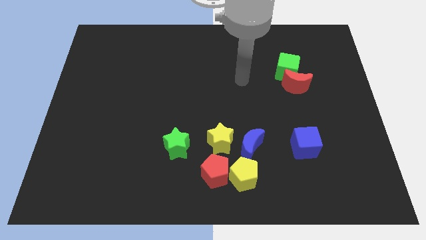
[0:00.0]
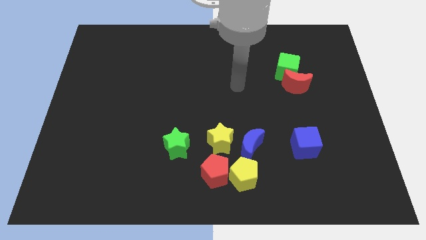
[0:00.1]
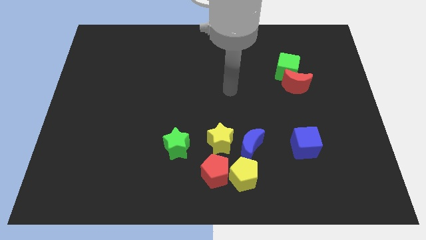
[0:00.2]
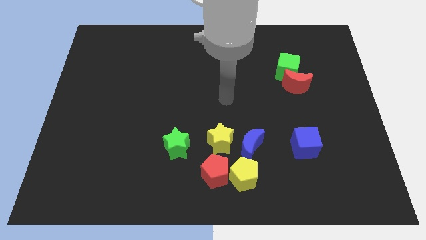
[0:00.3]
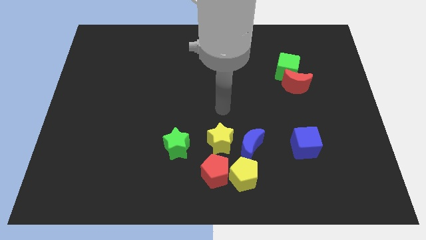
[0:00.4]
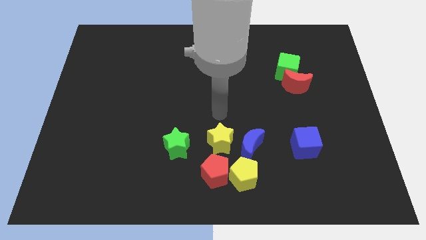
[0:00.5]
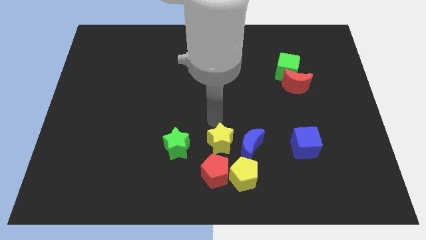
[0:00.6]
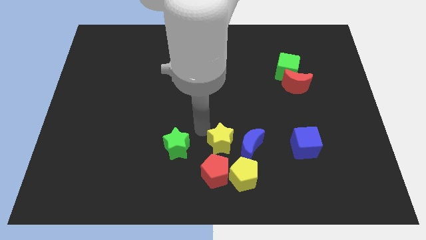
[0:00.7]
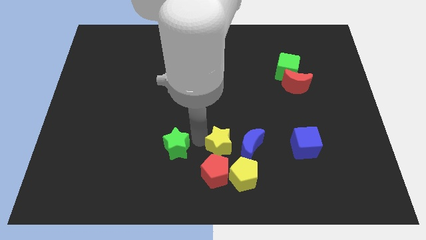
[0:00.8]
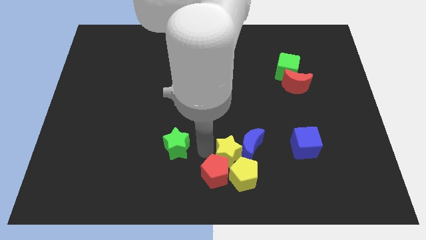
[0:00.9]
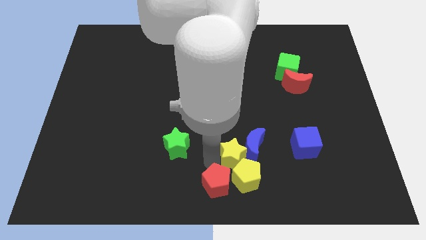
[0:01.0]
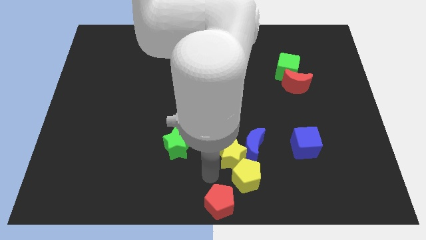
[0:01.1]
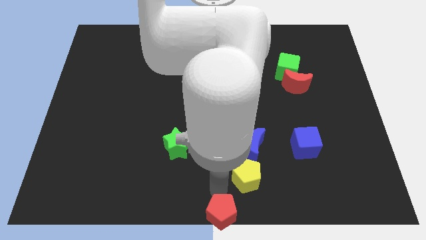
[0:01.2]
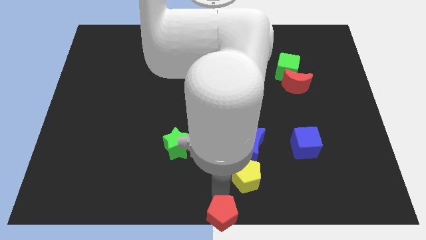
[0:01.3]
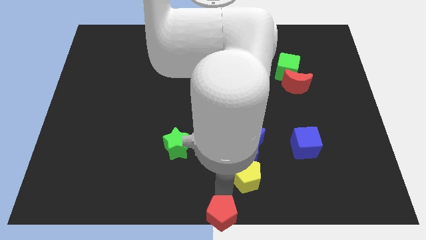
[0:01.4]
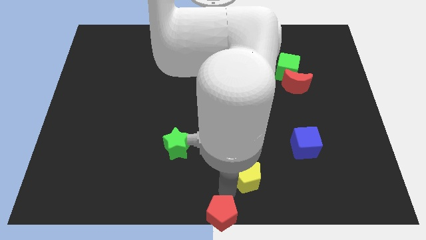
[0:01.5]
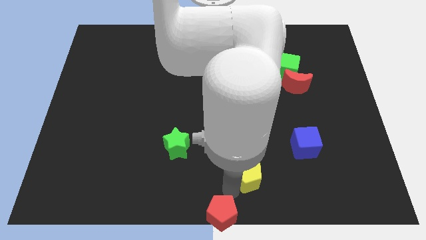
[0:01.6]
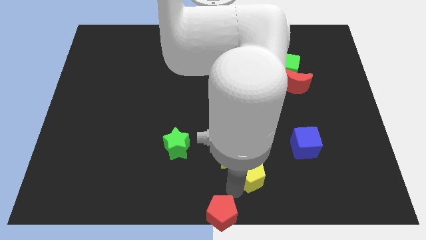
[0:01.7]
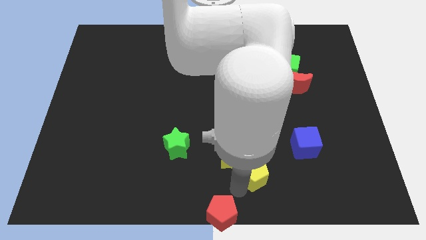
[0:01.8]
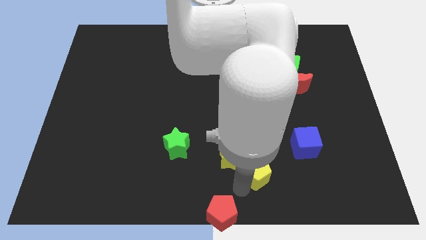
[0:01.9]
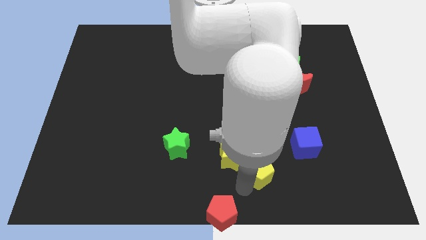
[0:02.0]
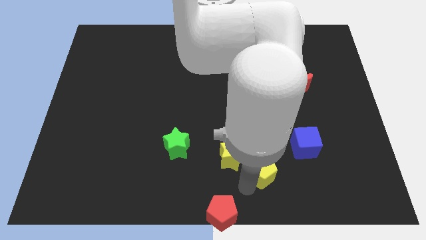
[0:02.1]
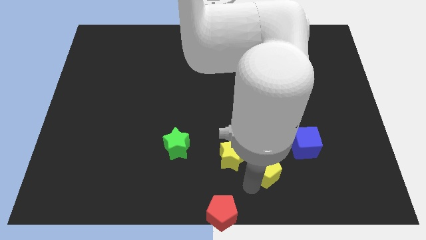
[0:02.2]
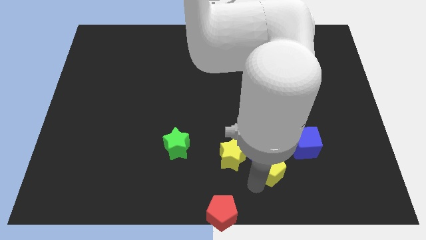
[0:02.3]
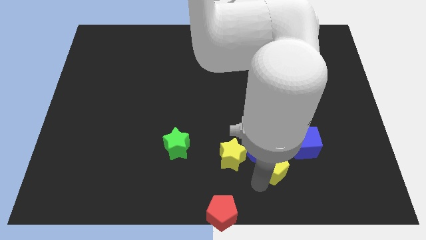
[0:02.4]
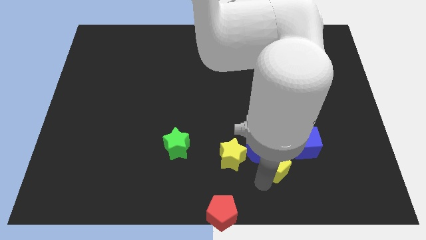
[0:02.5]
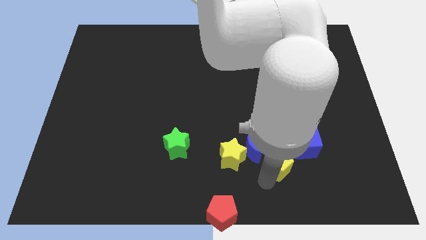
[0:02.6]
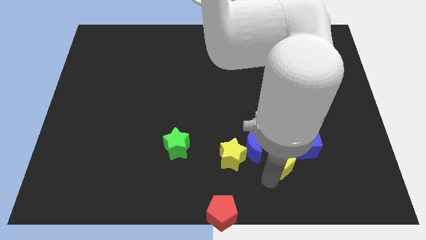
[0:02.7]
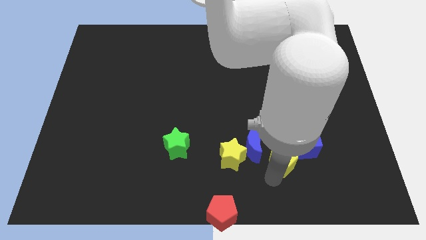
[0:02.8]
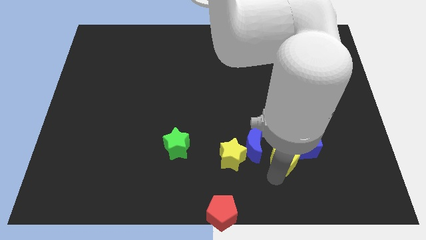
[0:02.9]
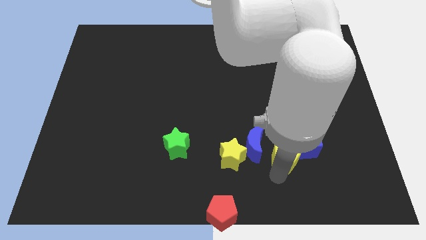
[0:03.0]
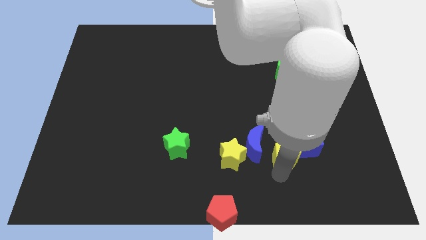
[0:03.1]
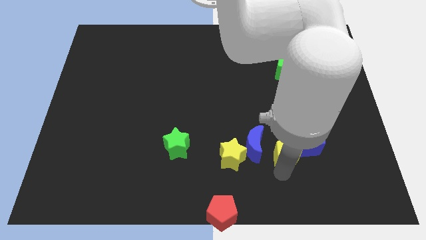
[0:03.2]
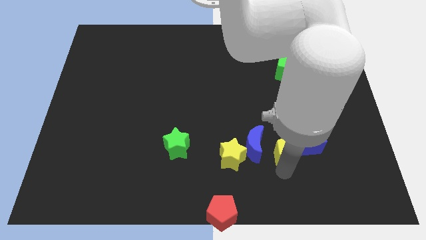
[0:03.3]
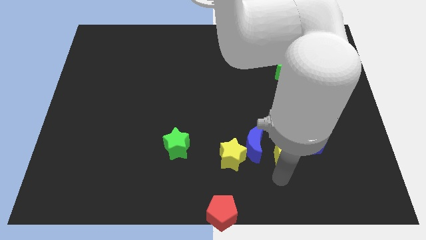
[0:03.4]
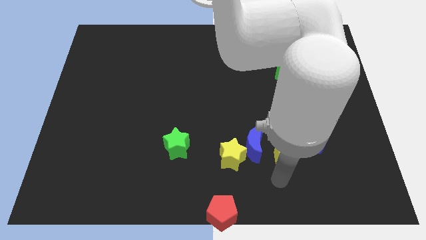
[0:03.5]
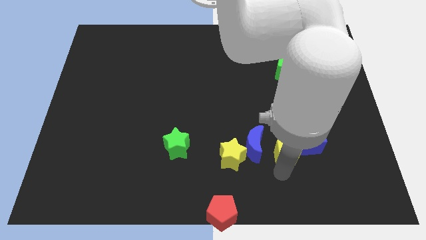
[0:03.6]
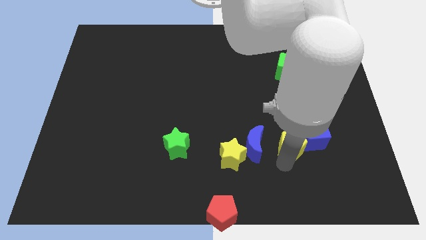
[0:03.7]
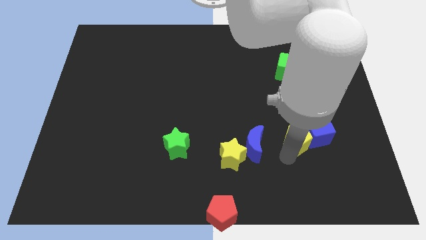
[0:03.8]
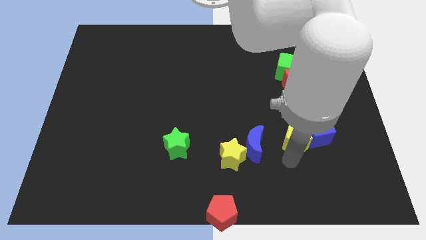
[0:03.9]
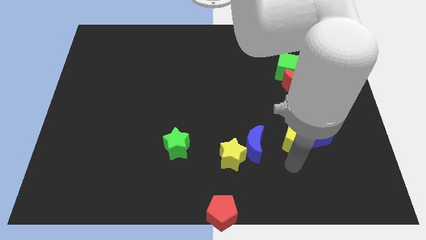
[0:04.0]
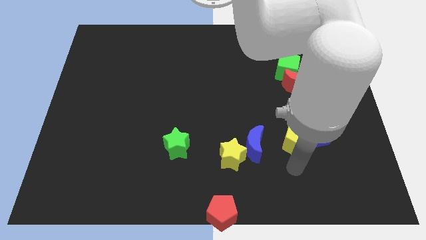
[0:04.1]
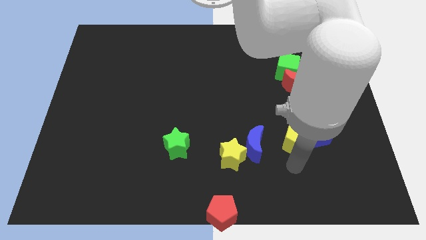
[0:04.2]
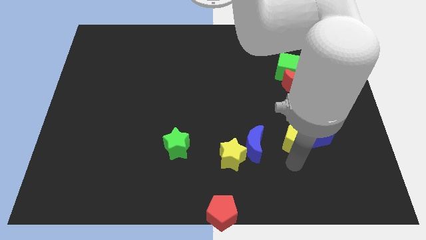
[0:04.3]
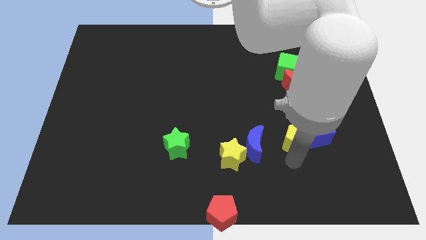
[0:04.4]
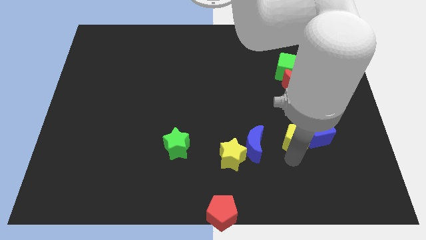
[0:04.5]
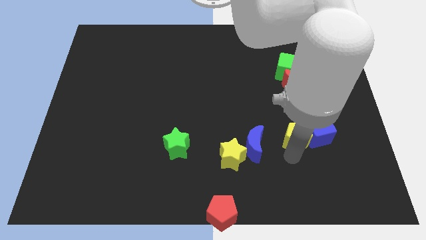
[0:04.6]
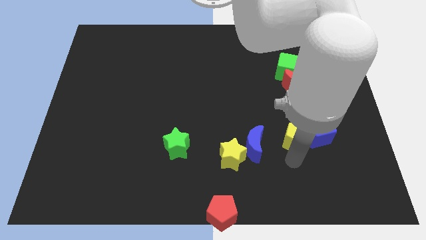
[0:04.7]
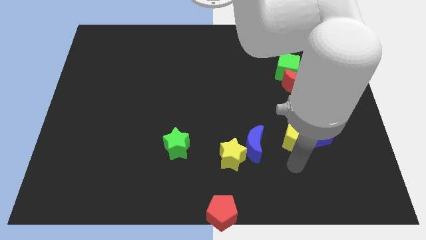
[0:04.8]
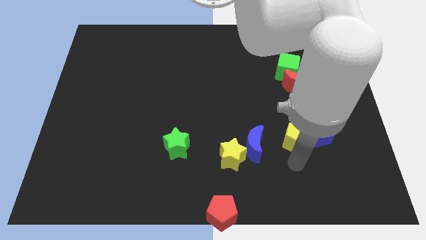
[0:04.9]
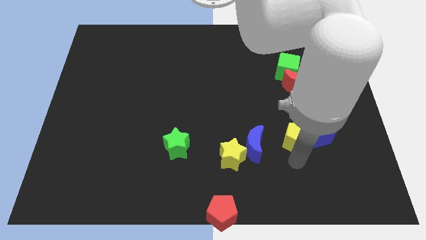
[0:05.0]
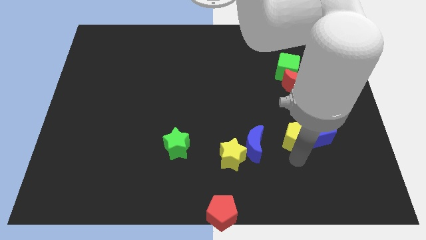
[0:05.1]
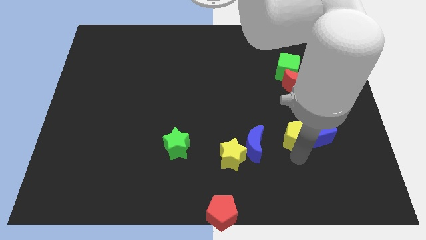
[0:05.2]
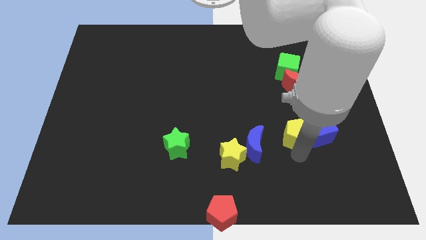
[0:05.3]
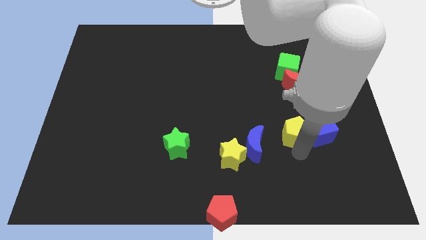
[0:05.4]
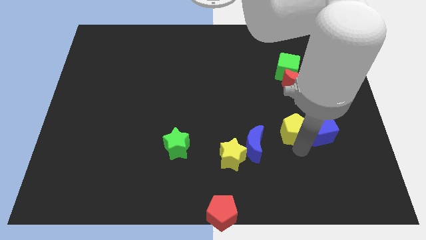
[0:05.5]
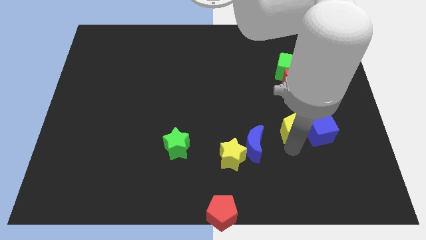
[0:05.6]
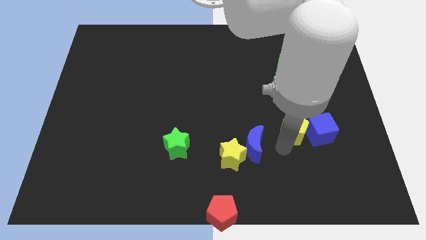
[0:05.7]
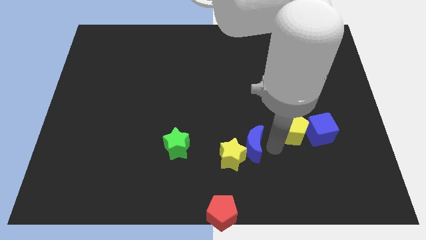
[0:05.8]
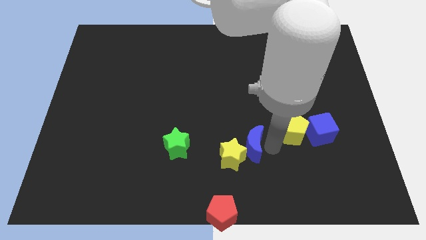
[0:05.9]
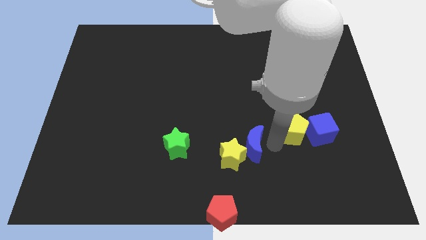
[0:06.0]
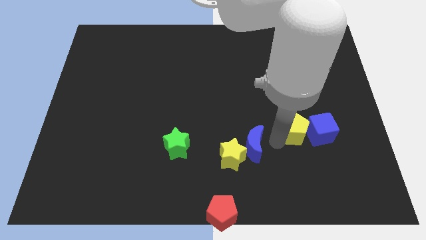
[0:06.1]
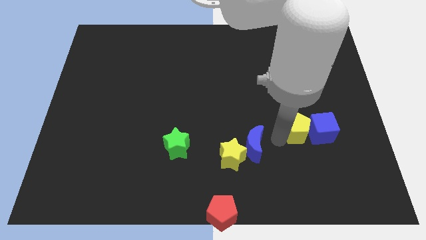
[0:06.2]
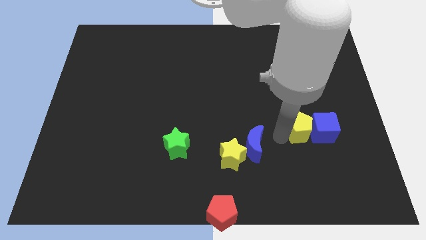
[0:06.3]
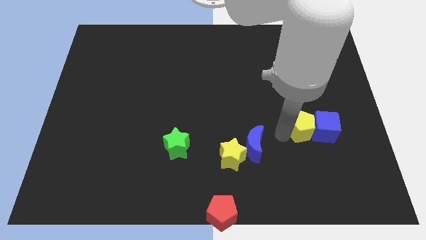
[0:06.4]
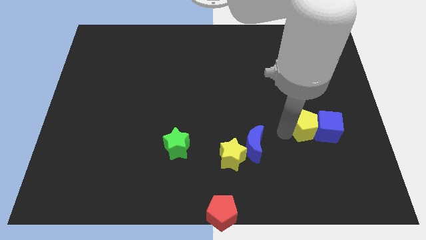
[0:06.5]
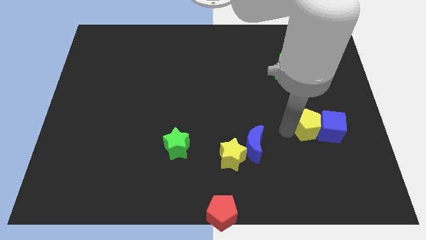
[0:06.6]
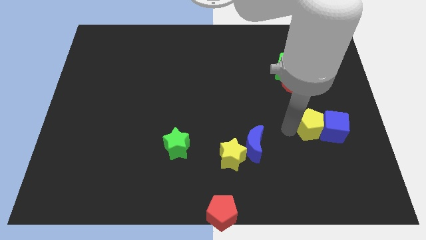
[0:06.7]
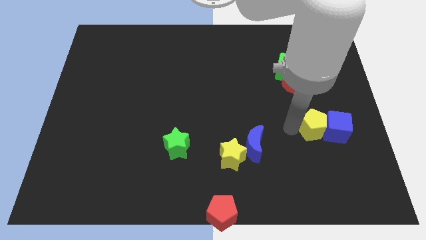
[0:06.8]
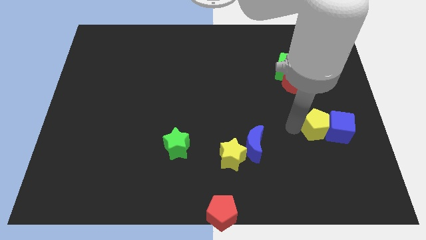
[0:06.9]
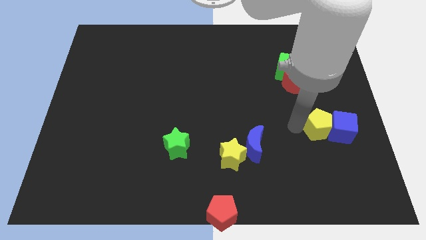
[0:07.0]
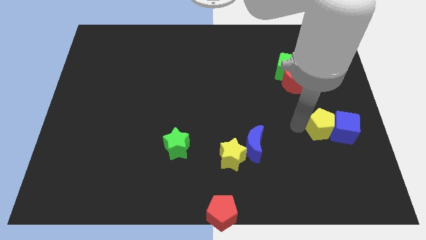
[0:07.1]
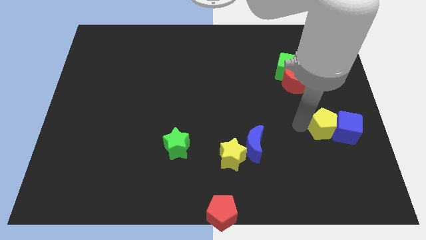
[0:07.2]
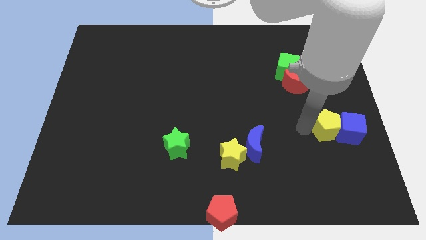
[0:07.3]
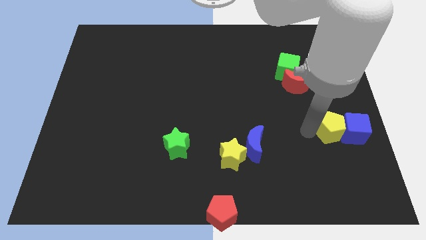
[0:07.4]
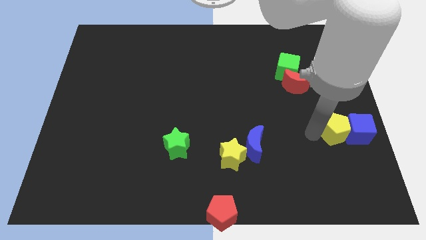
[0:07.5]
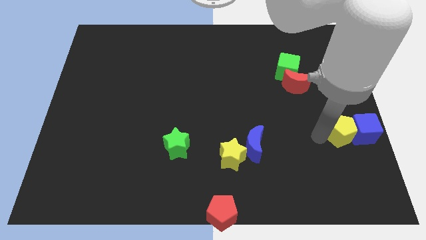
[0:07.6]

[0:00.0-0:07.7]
move the yellow pentagon to the center right
